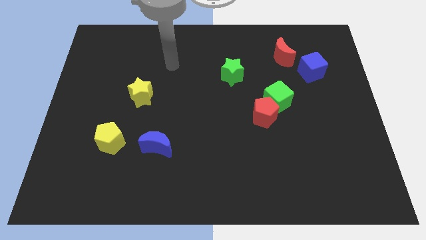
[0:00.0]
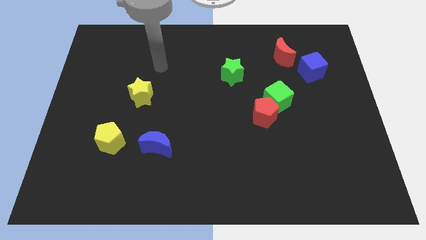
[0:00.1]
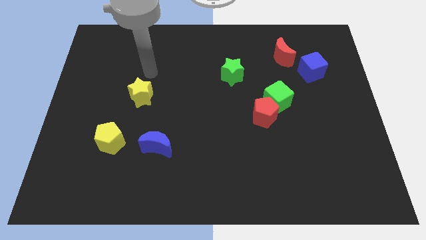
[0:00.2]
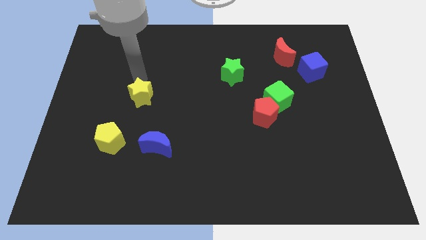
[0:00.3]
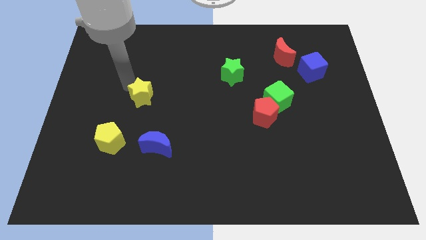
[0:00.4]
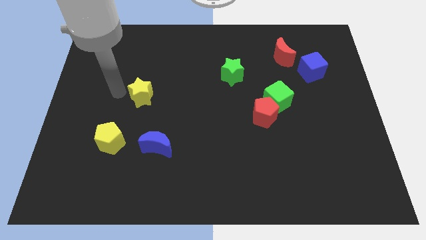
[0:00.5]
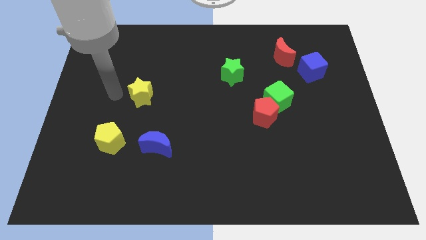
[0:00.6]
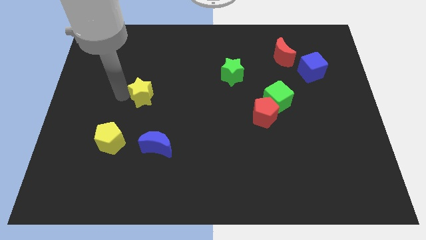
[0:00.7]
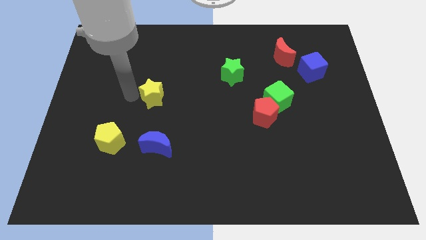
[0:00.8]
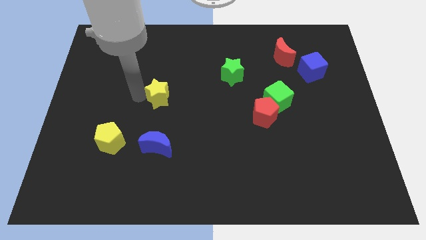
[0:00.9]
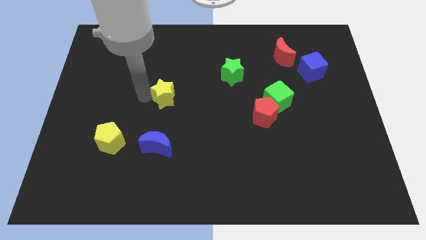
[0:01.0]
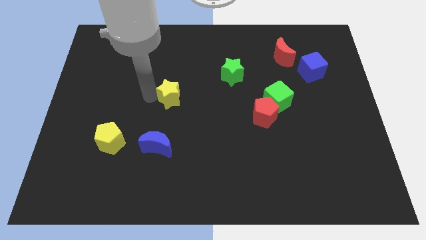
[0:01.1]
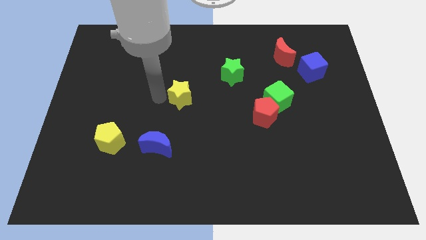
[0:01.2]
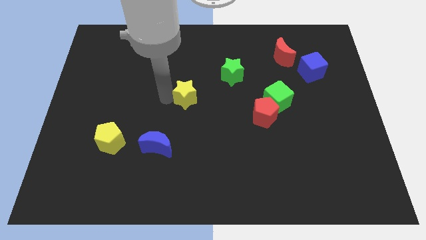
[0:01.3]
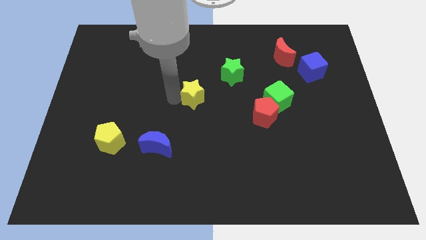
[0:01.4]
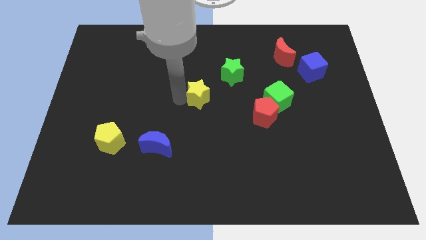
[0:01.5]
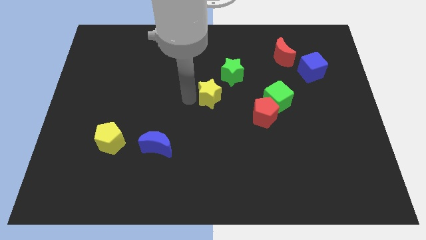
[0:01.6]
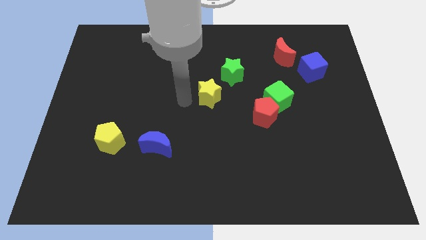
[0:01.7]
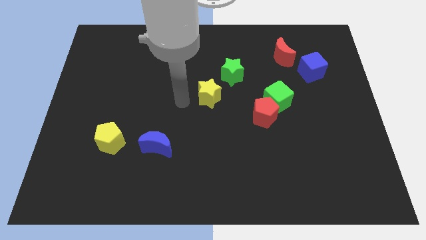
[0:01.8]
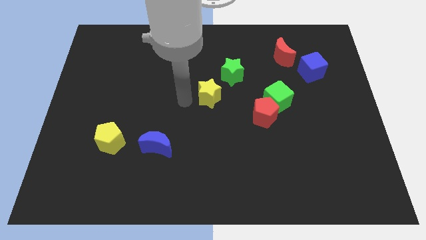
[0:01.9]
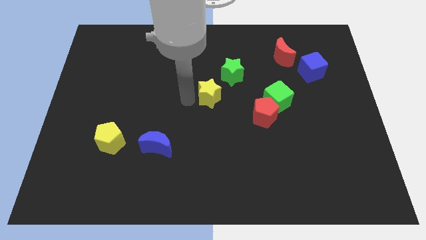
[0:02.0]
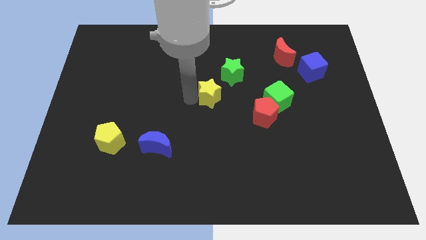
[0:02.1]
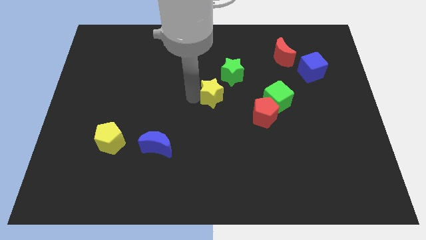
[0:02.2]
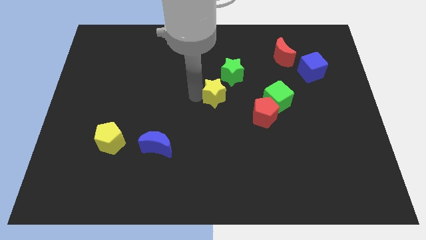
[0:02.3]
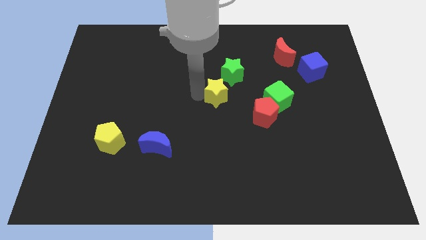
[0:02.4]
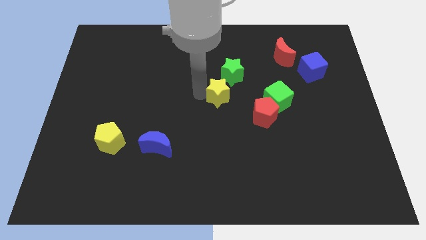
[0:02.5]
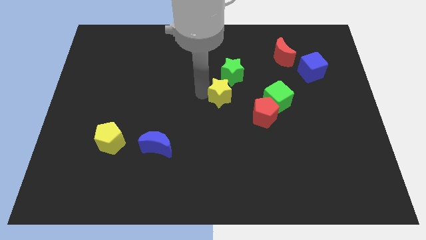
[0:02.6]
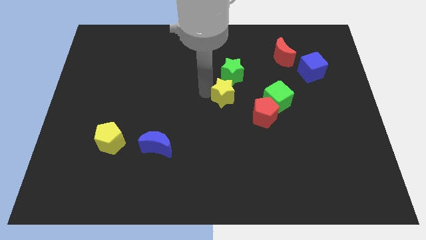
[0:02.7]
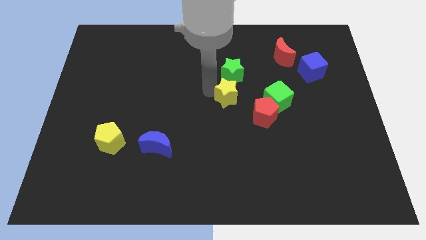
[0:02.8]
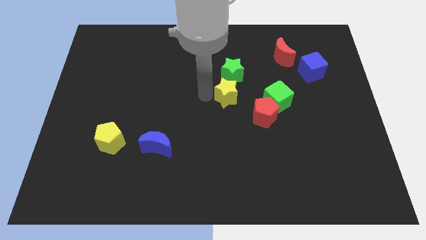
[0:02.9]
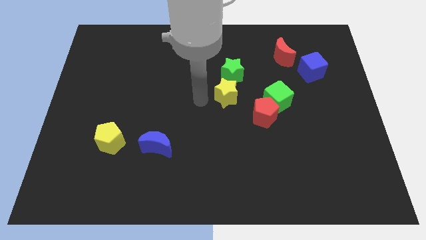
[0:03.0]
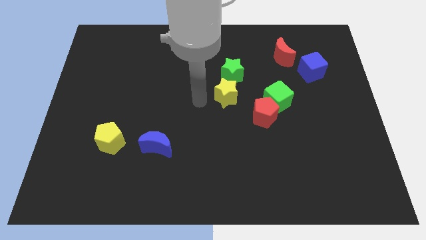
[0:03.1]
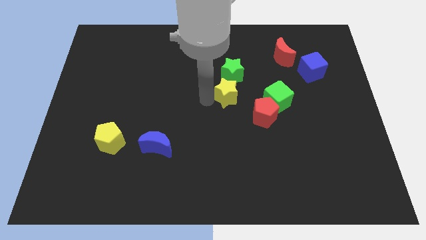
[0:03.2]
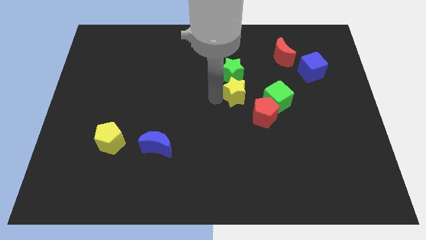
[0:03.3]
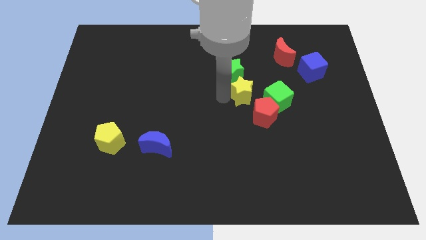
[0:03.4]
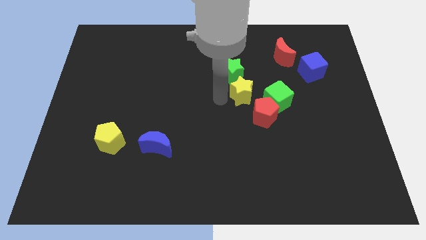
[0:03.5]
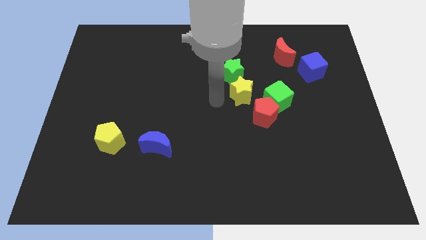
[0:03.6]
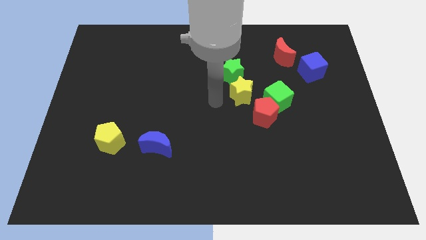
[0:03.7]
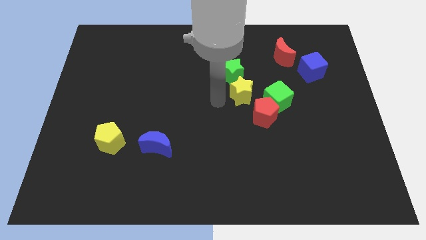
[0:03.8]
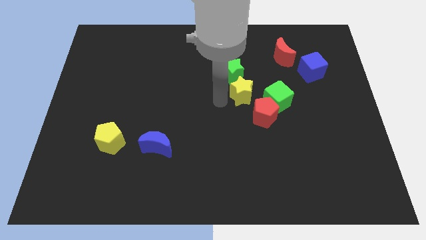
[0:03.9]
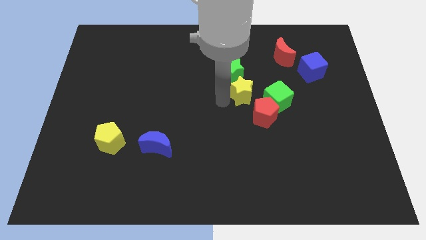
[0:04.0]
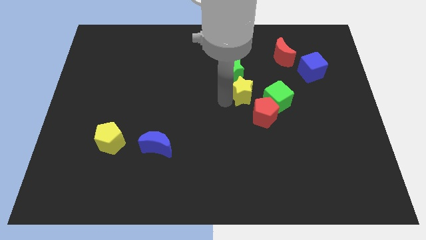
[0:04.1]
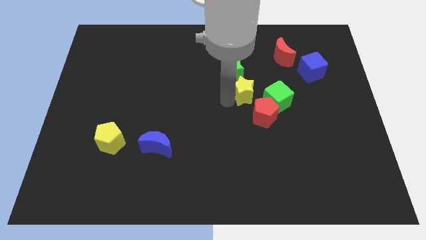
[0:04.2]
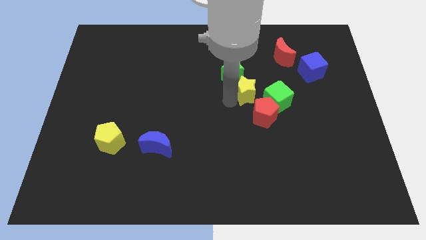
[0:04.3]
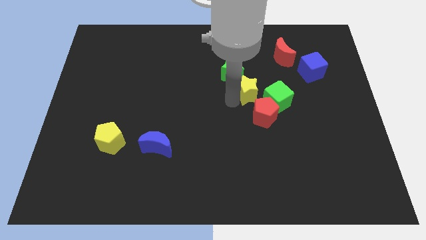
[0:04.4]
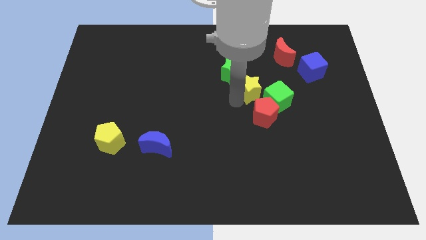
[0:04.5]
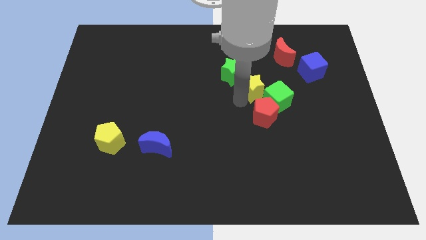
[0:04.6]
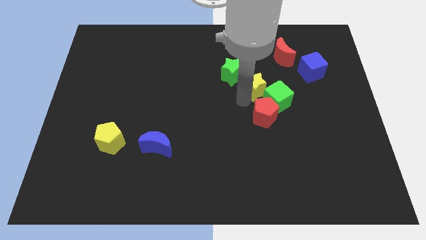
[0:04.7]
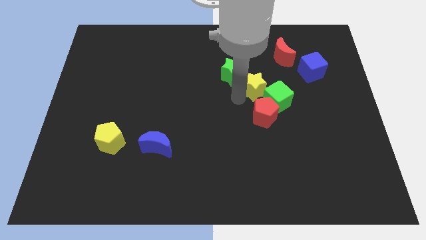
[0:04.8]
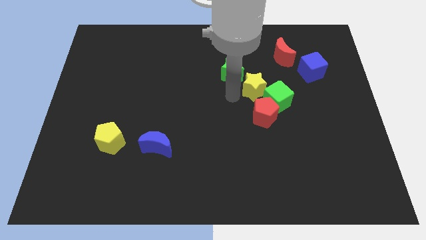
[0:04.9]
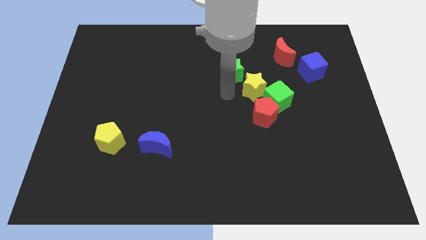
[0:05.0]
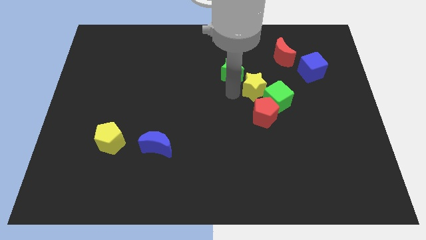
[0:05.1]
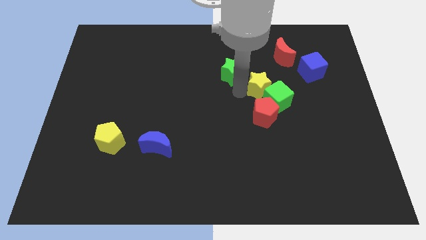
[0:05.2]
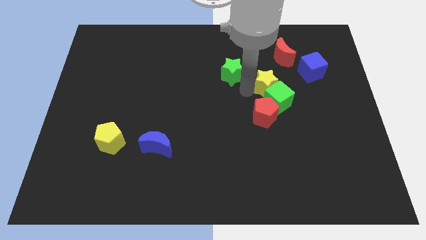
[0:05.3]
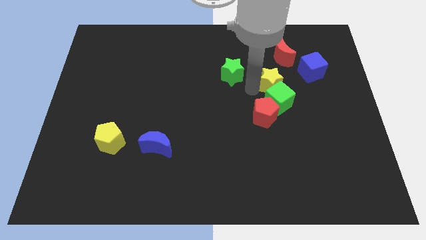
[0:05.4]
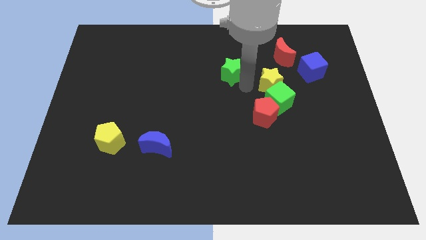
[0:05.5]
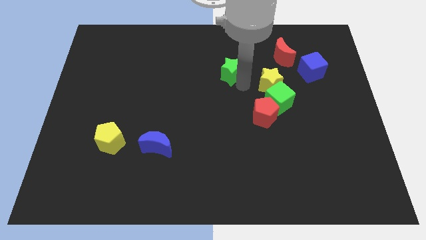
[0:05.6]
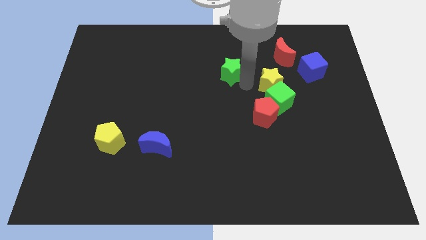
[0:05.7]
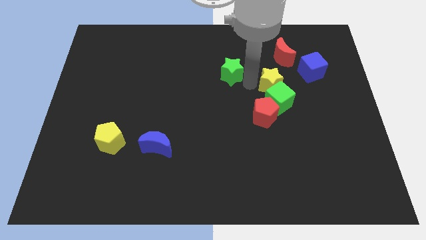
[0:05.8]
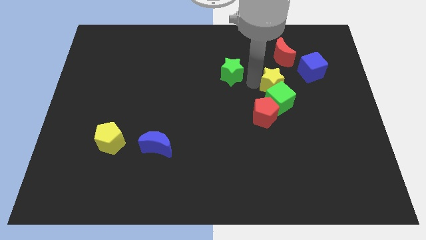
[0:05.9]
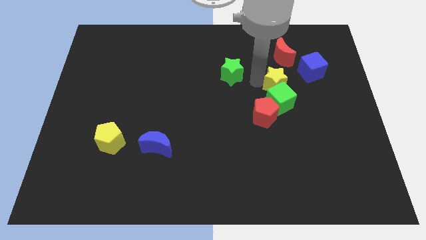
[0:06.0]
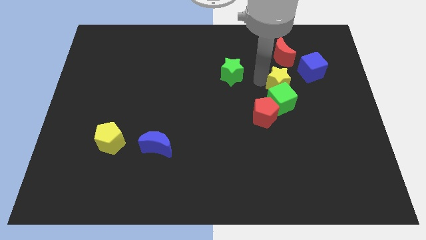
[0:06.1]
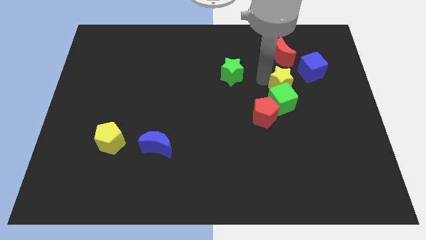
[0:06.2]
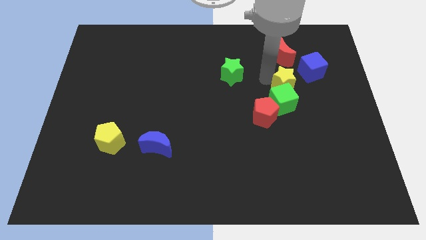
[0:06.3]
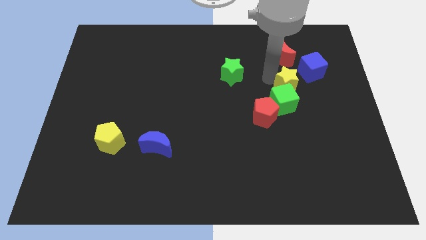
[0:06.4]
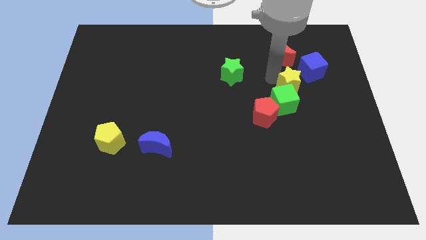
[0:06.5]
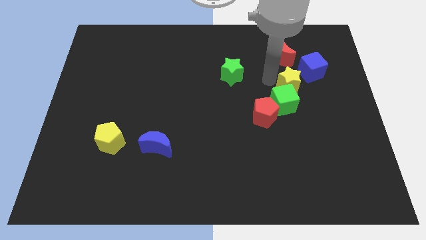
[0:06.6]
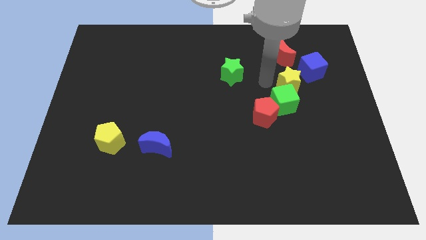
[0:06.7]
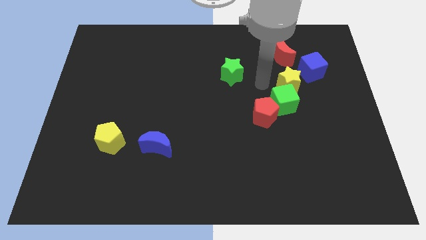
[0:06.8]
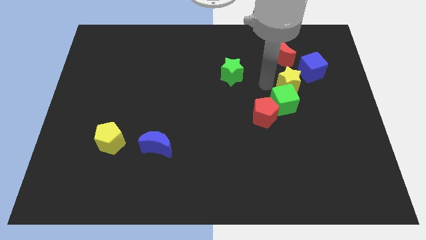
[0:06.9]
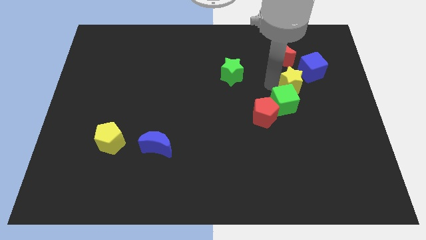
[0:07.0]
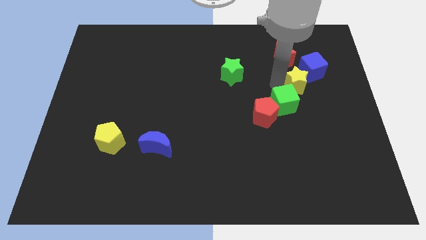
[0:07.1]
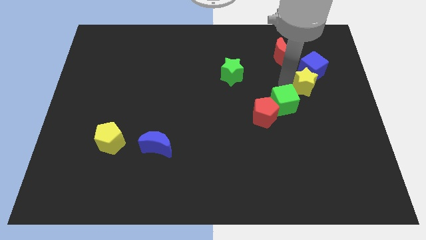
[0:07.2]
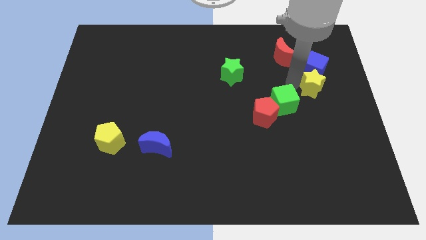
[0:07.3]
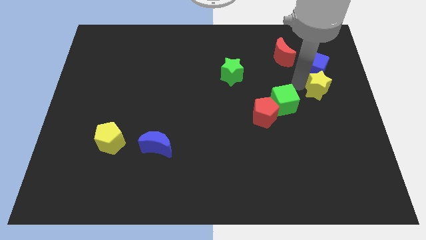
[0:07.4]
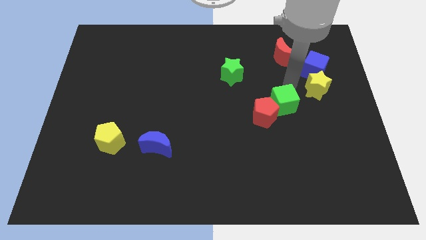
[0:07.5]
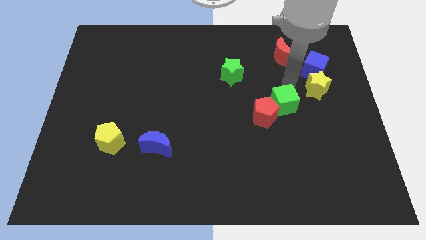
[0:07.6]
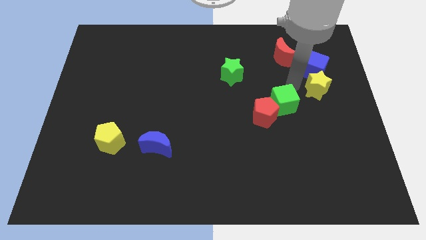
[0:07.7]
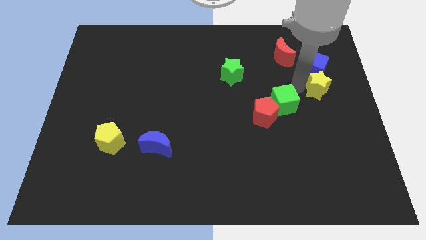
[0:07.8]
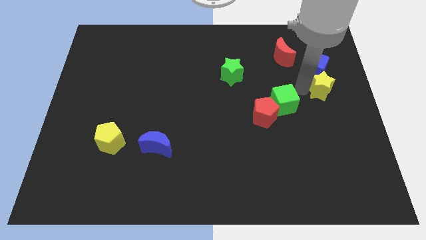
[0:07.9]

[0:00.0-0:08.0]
push the yellow star to the center right
